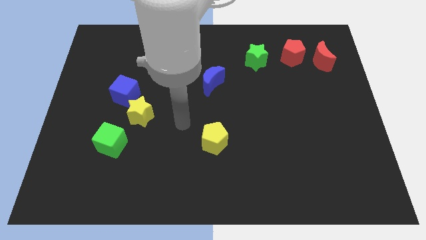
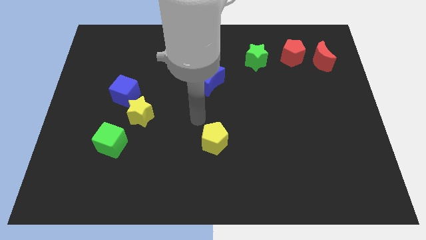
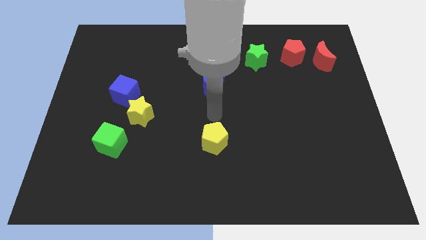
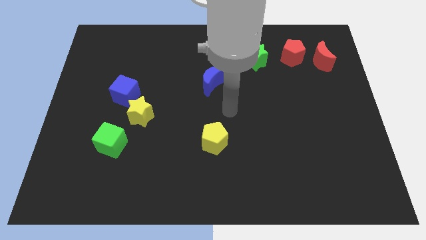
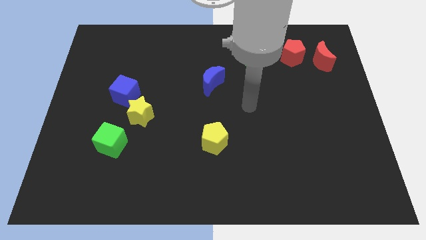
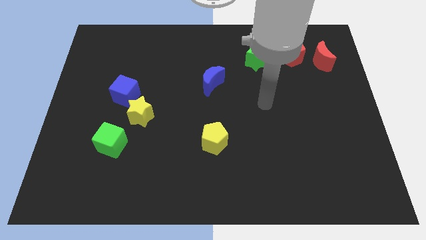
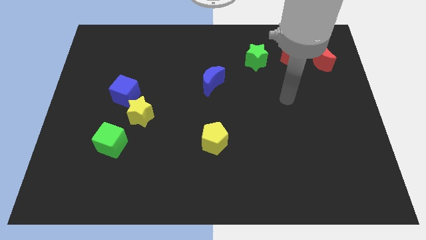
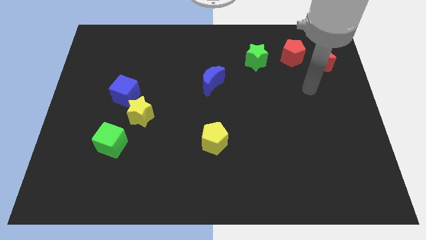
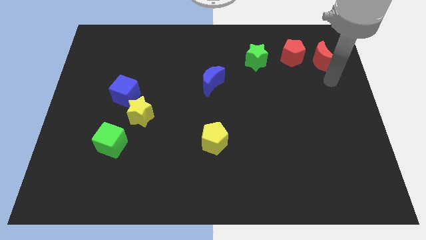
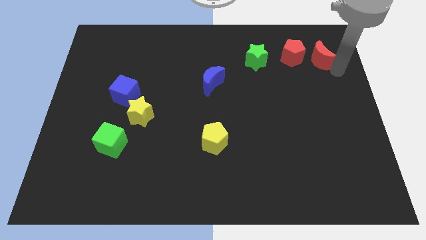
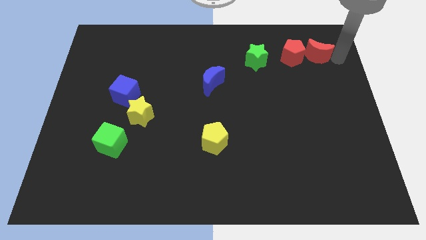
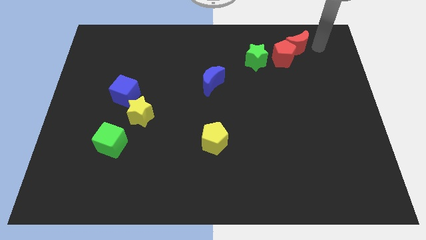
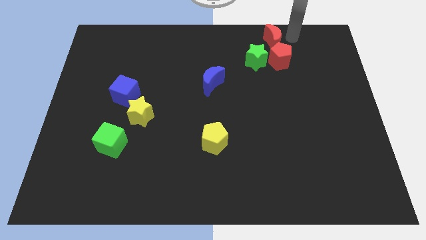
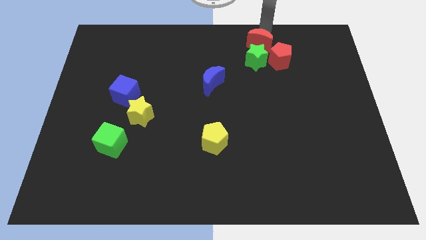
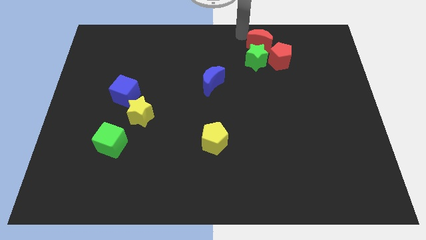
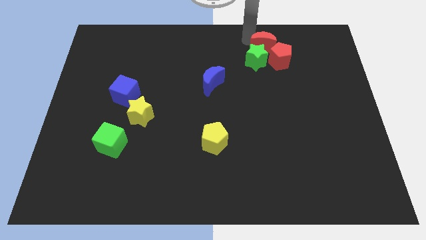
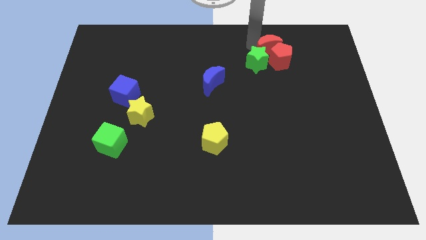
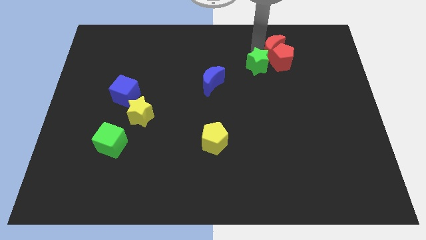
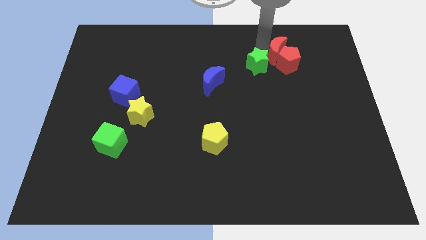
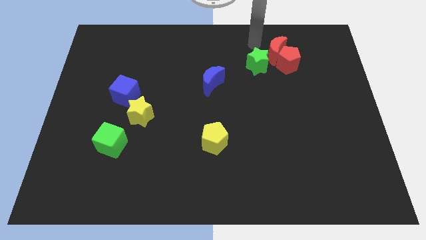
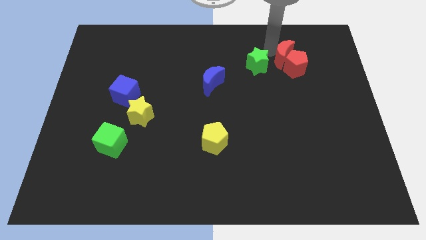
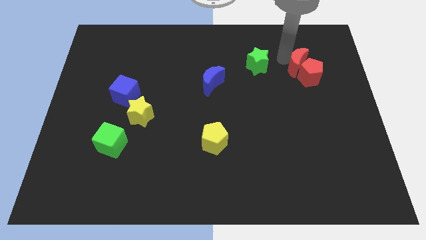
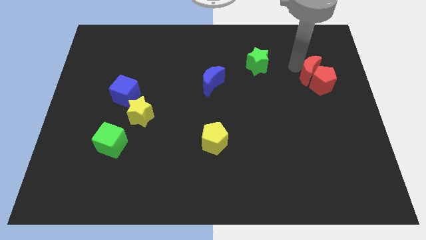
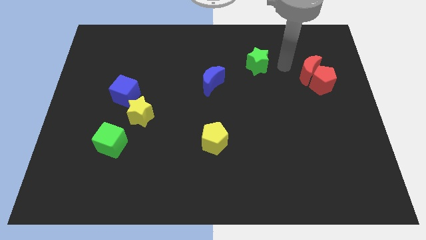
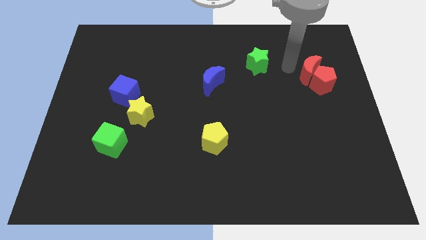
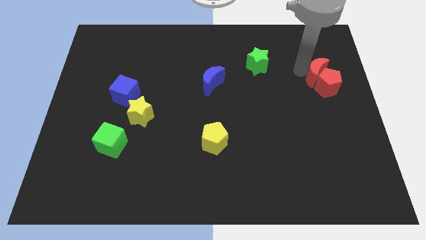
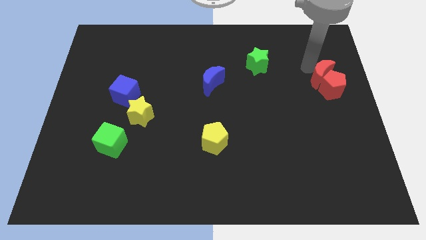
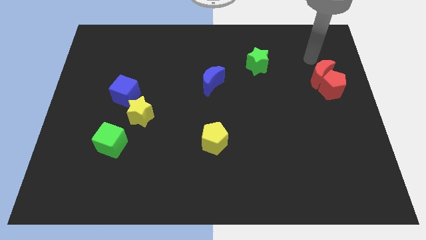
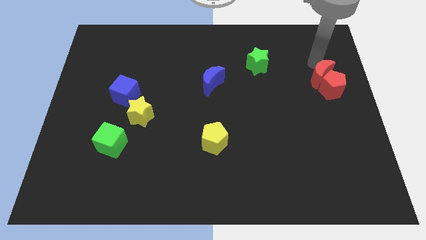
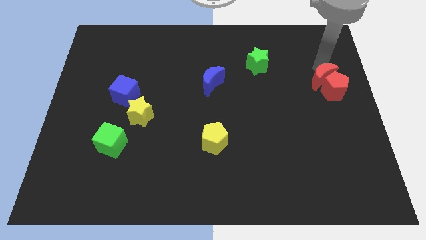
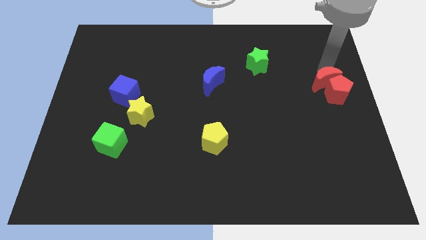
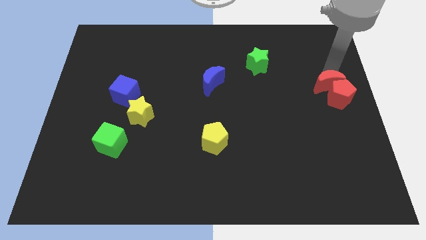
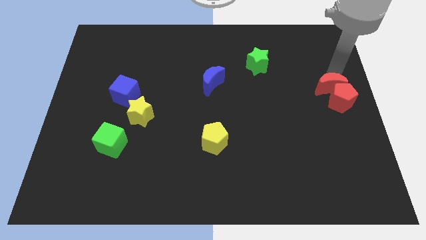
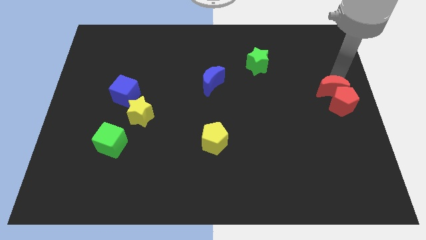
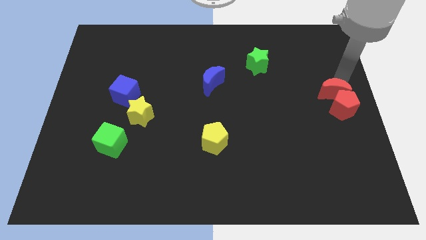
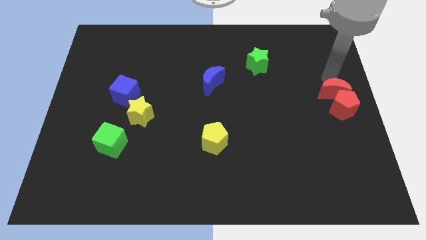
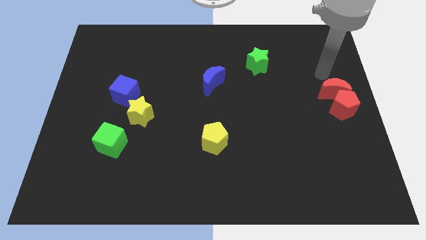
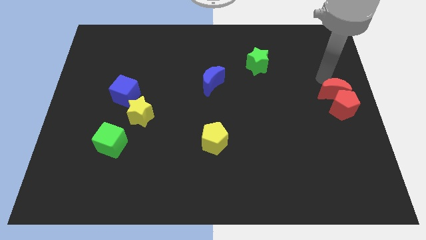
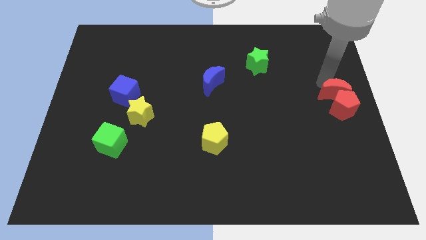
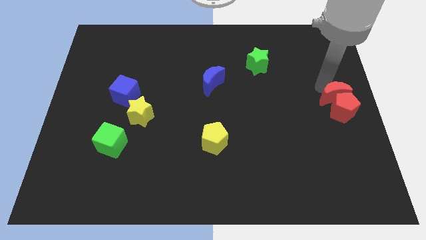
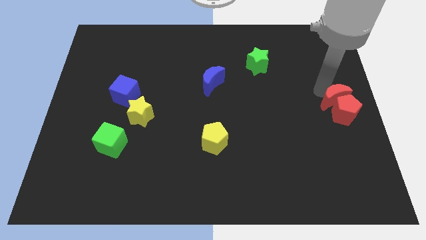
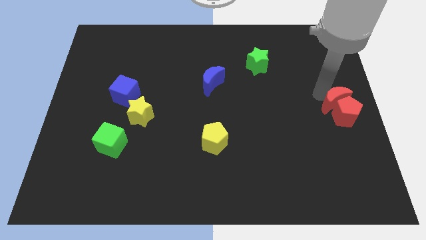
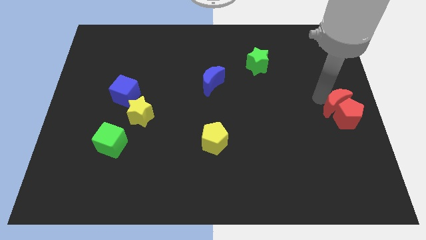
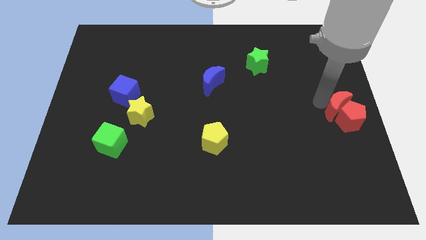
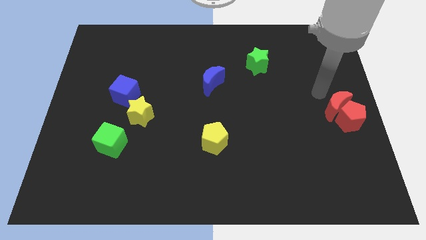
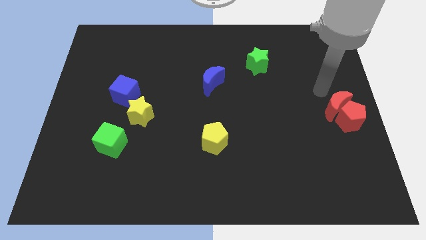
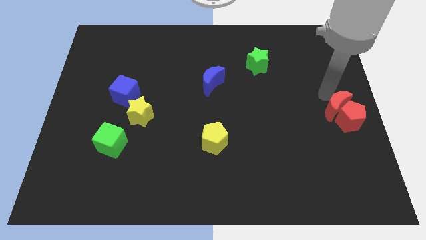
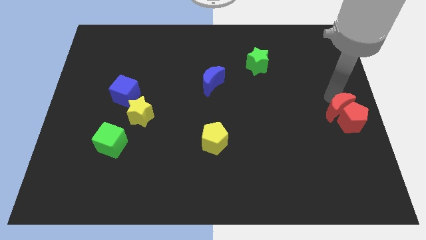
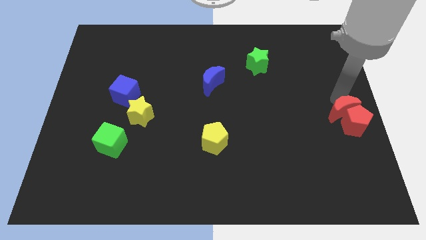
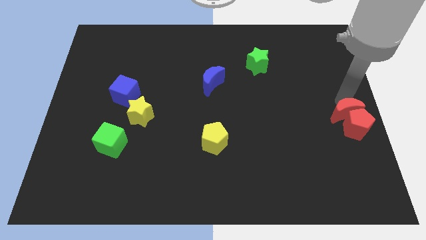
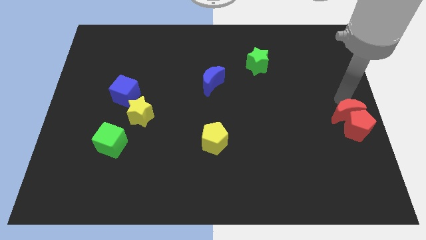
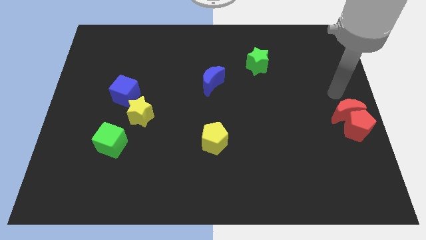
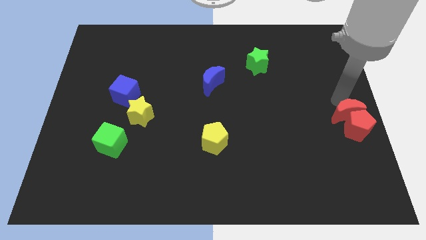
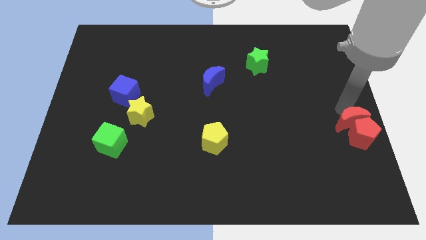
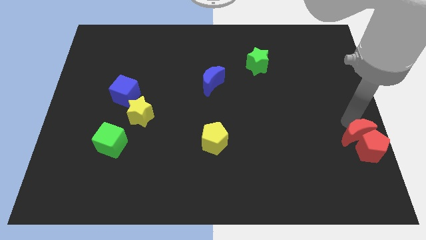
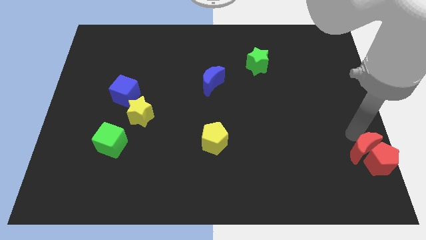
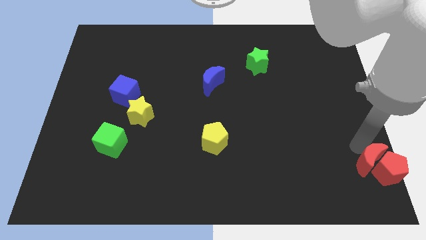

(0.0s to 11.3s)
move the red moon to the bottom right
